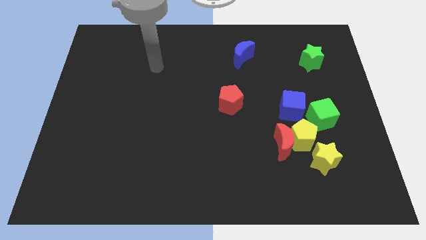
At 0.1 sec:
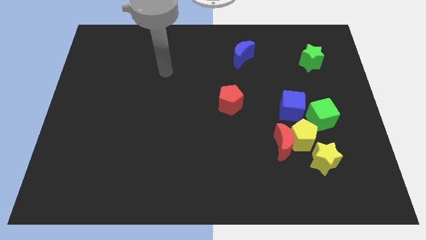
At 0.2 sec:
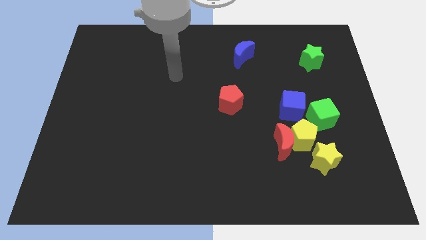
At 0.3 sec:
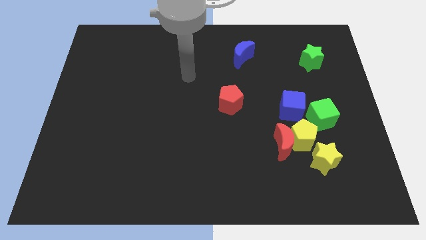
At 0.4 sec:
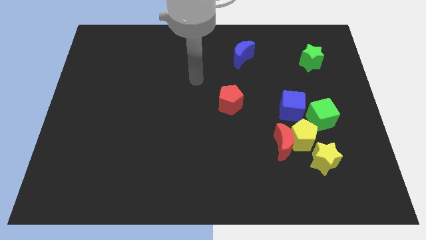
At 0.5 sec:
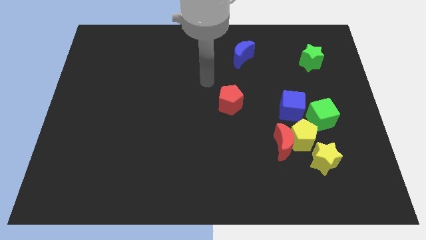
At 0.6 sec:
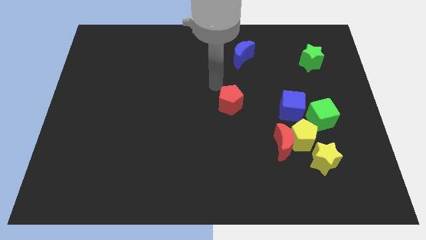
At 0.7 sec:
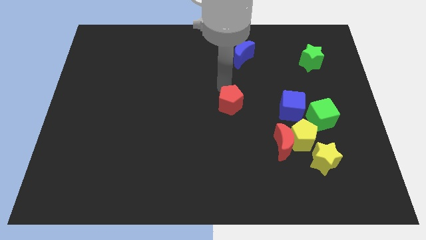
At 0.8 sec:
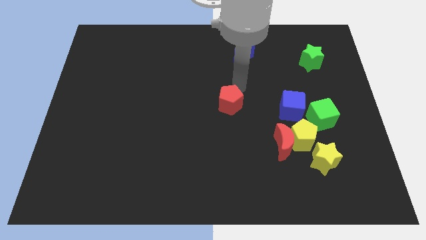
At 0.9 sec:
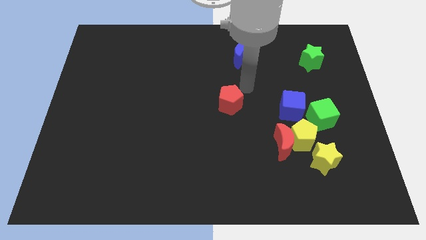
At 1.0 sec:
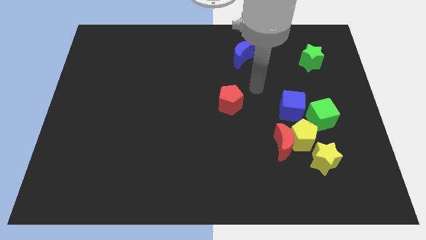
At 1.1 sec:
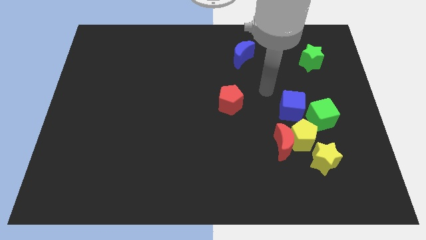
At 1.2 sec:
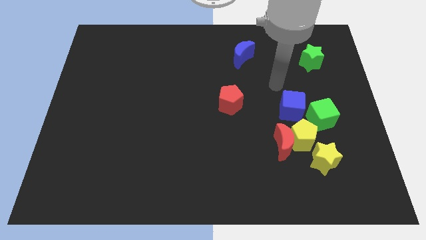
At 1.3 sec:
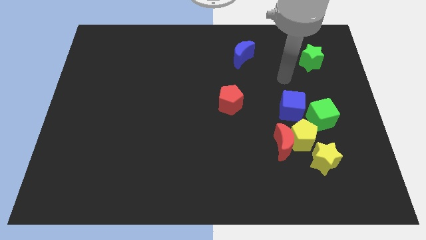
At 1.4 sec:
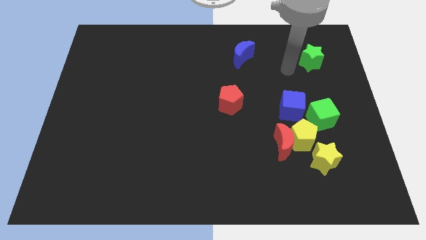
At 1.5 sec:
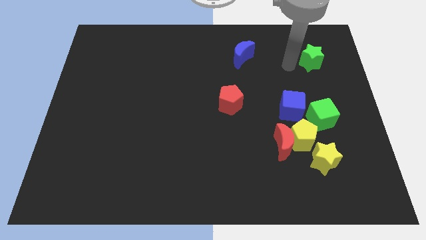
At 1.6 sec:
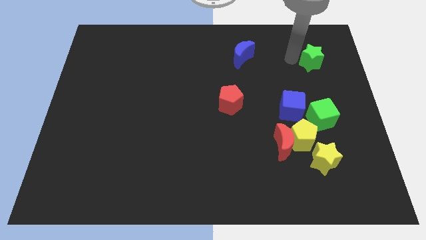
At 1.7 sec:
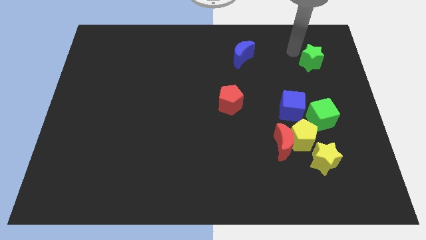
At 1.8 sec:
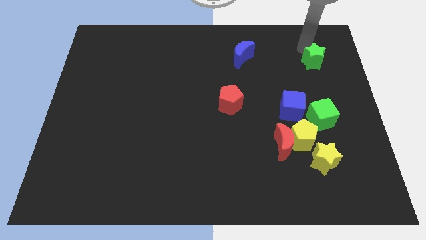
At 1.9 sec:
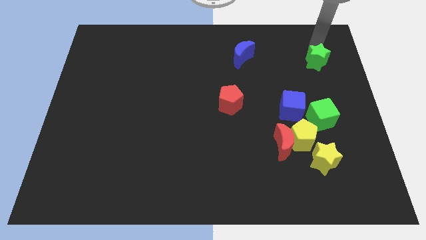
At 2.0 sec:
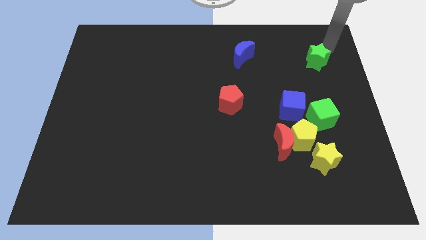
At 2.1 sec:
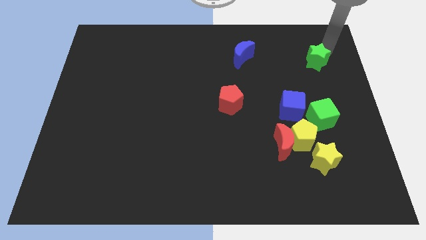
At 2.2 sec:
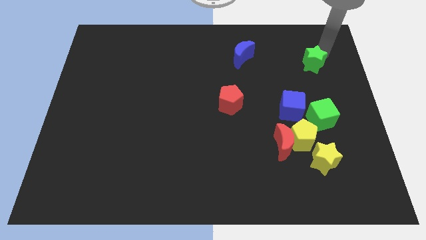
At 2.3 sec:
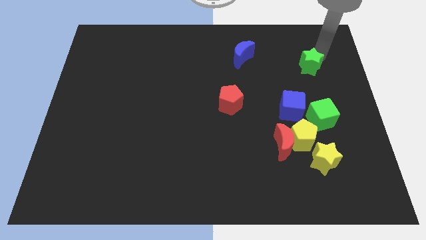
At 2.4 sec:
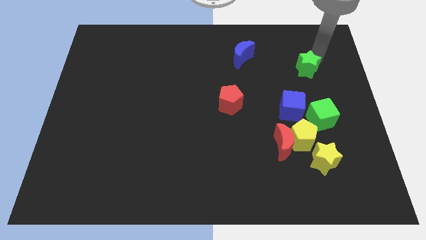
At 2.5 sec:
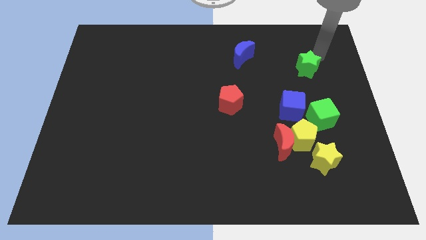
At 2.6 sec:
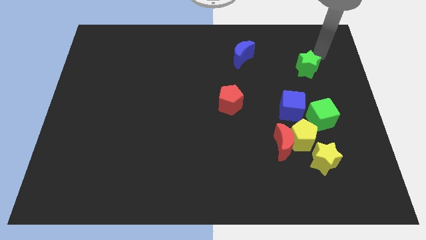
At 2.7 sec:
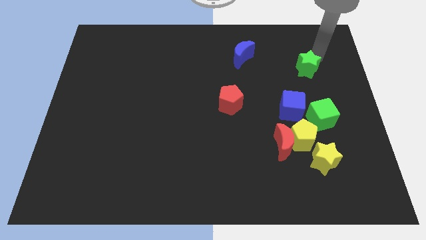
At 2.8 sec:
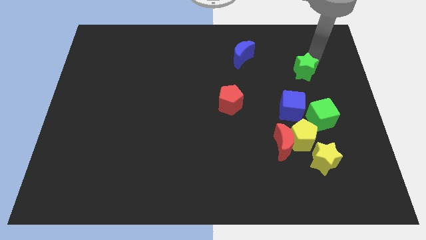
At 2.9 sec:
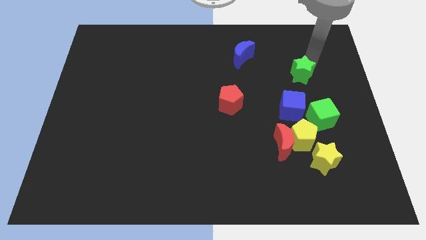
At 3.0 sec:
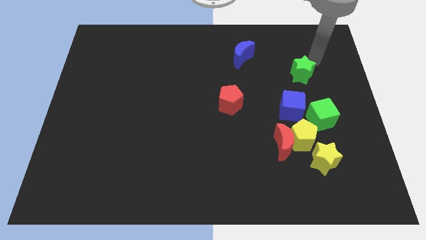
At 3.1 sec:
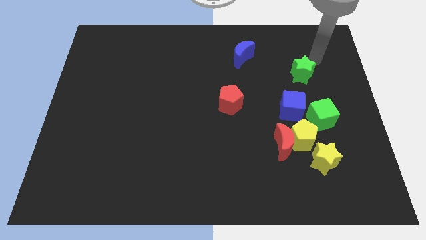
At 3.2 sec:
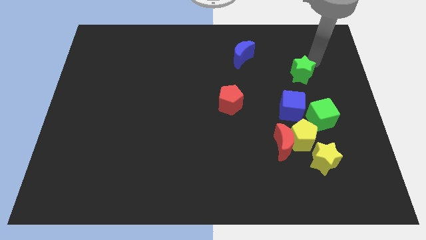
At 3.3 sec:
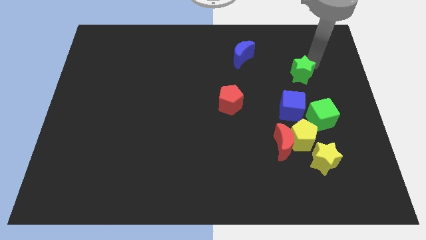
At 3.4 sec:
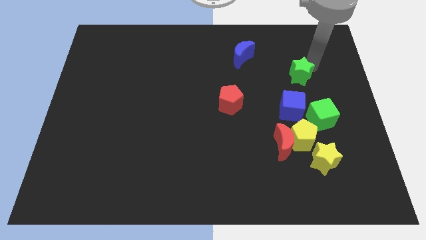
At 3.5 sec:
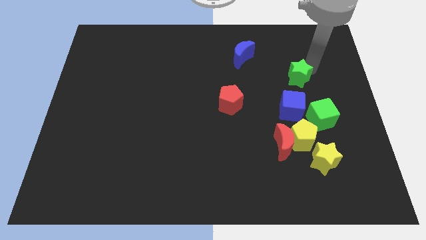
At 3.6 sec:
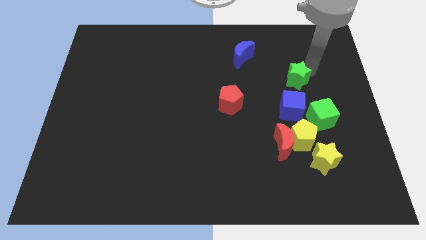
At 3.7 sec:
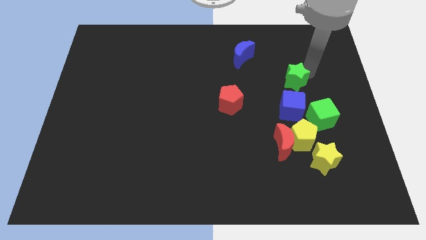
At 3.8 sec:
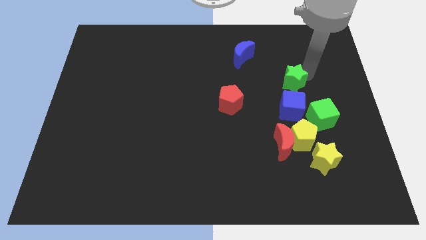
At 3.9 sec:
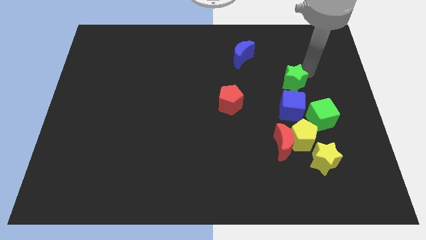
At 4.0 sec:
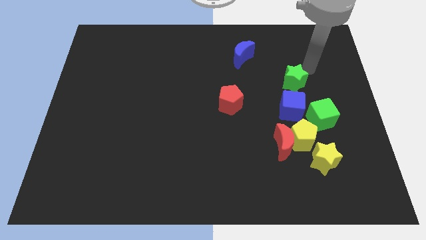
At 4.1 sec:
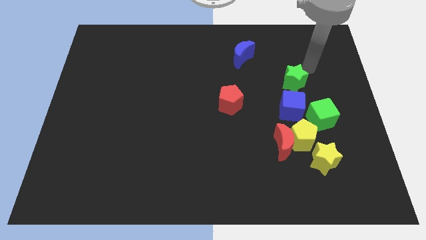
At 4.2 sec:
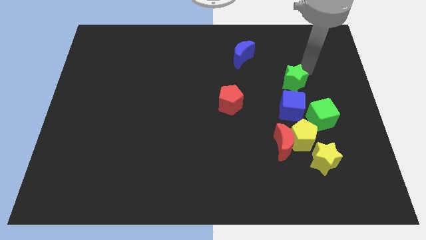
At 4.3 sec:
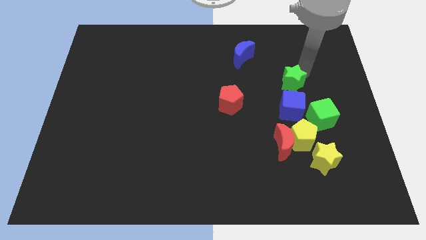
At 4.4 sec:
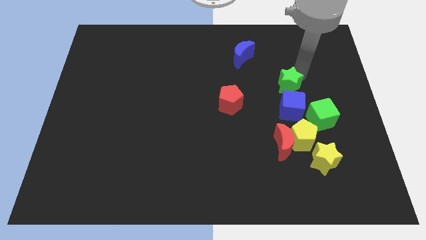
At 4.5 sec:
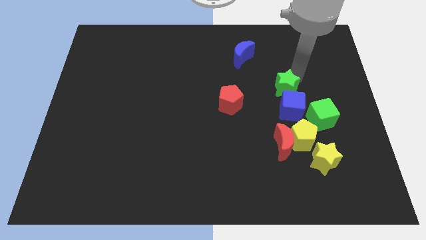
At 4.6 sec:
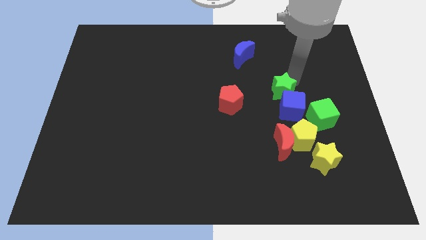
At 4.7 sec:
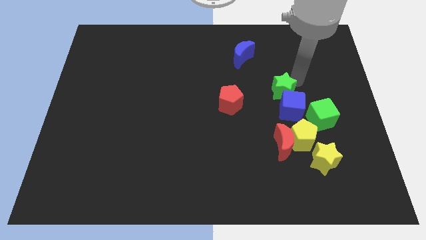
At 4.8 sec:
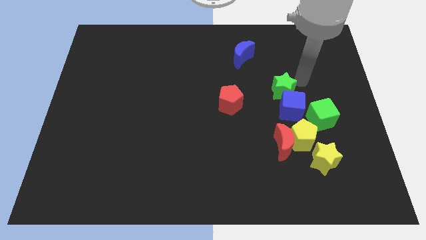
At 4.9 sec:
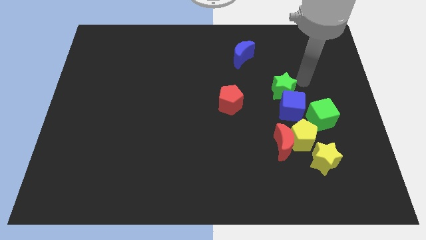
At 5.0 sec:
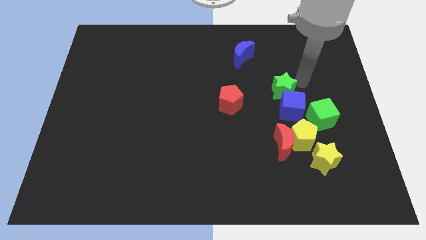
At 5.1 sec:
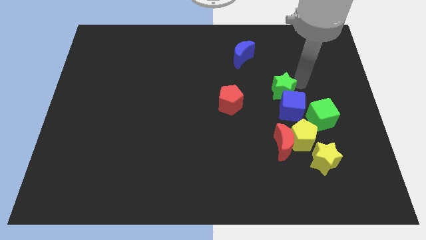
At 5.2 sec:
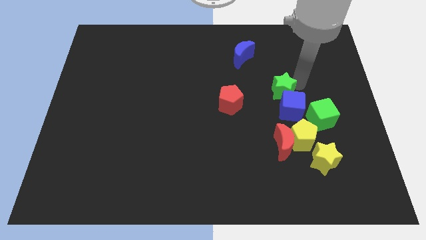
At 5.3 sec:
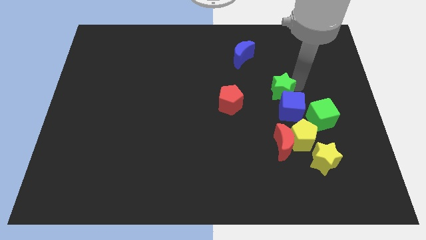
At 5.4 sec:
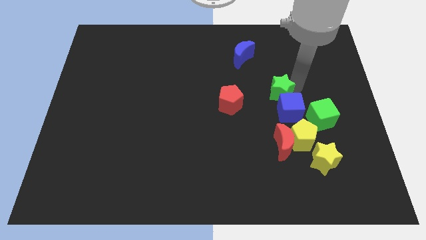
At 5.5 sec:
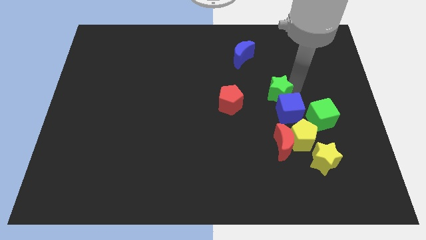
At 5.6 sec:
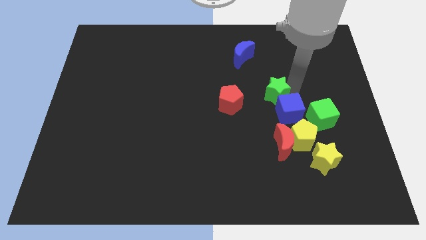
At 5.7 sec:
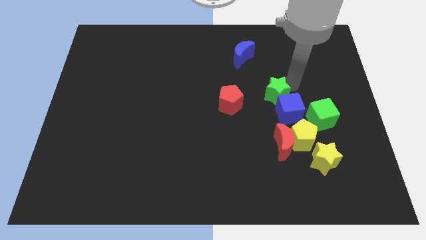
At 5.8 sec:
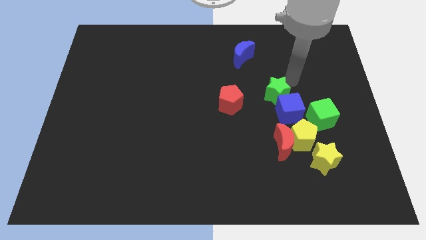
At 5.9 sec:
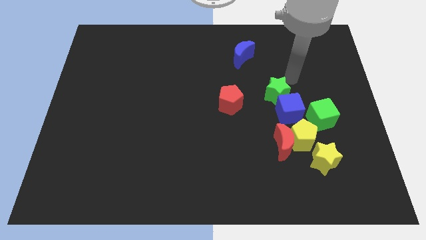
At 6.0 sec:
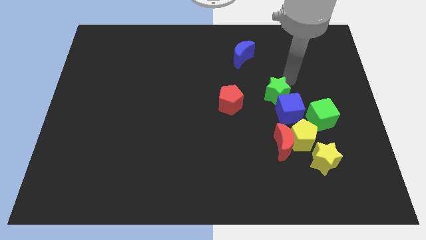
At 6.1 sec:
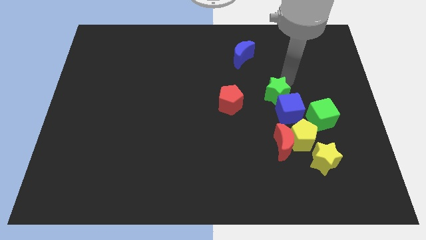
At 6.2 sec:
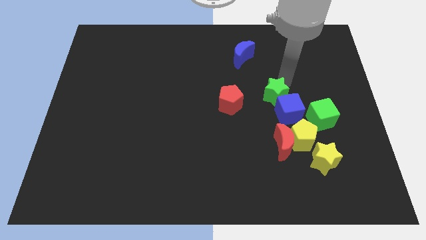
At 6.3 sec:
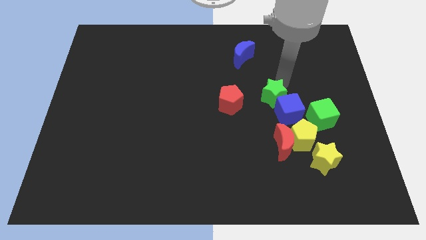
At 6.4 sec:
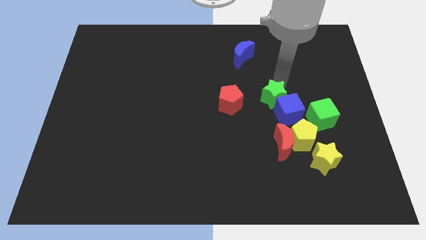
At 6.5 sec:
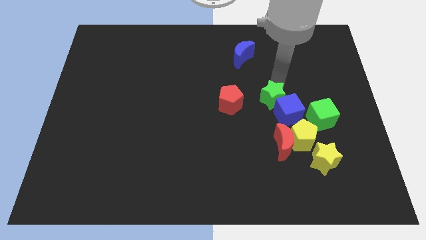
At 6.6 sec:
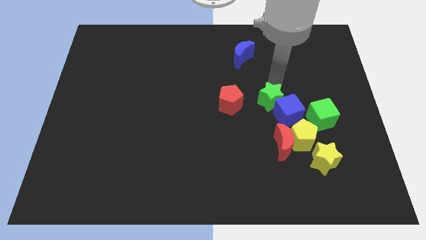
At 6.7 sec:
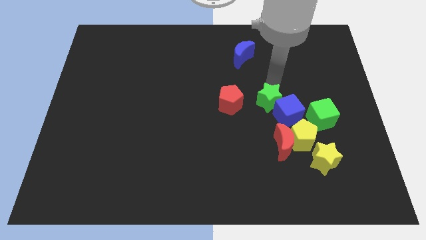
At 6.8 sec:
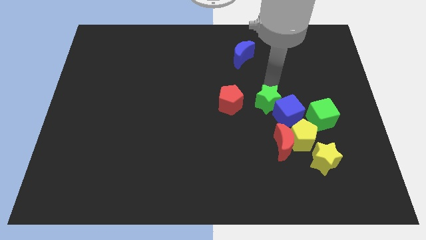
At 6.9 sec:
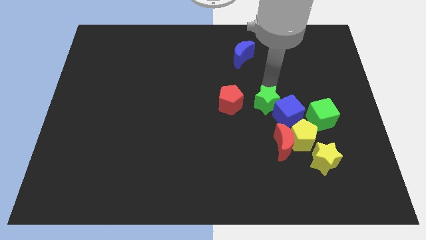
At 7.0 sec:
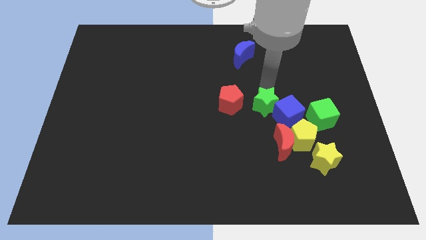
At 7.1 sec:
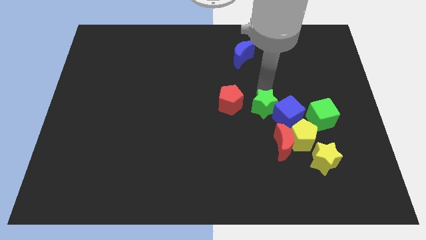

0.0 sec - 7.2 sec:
move the green star down and to the left

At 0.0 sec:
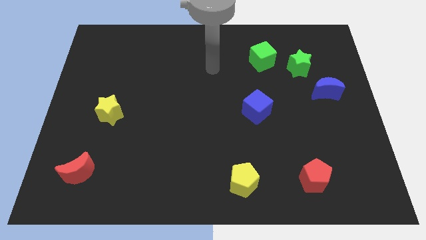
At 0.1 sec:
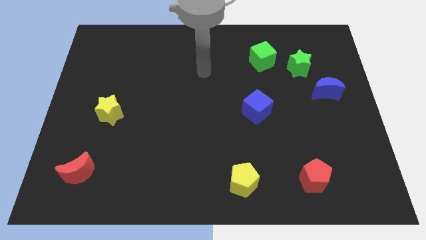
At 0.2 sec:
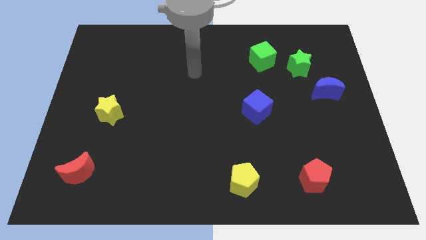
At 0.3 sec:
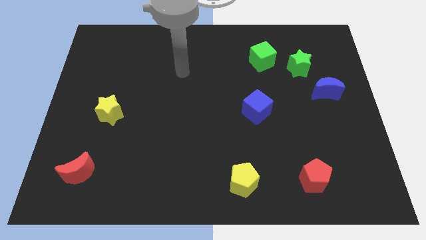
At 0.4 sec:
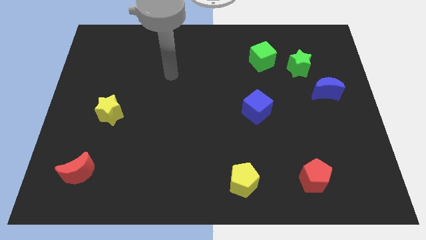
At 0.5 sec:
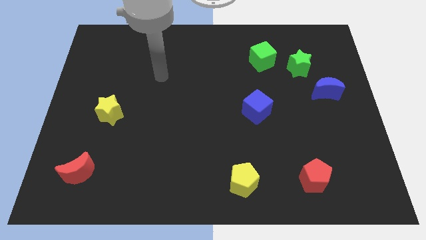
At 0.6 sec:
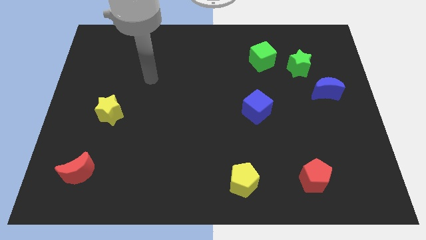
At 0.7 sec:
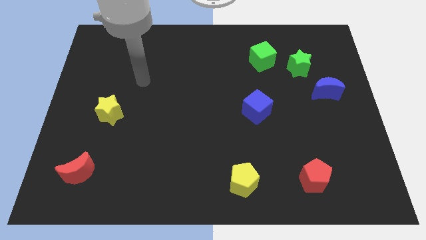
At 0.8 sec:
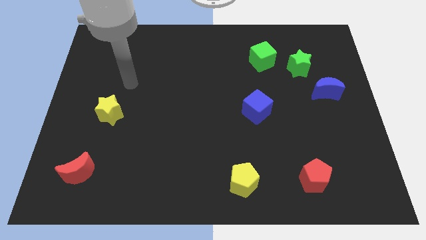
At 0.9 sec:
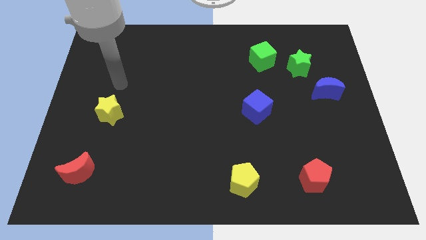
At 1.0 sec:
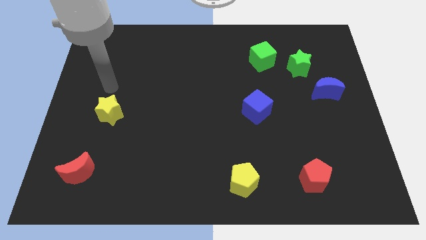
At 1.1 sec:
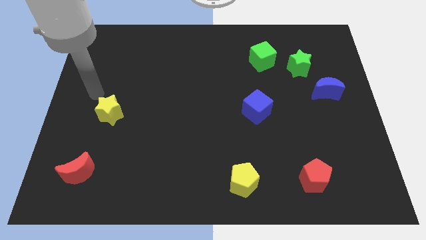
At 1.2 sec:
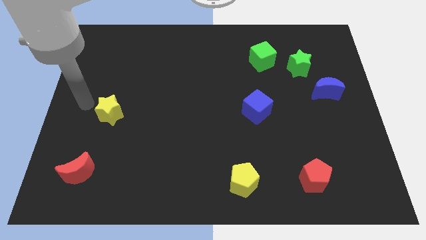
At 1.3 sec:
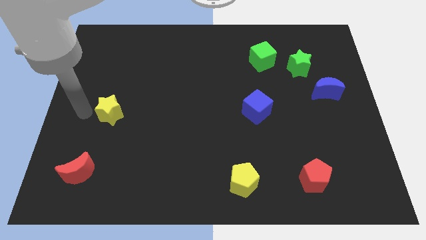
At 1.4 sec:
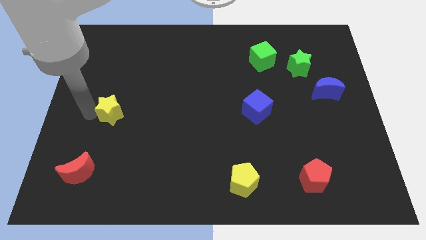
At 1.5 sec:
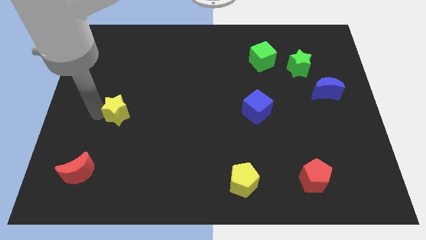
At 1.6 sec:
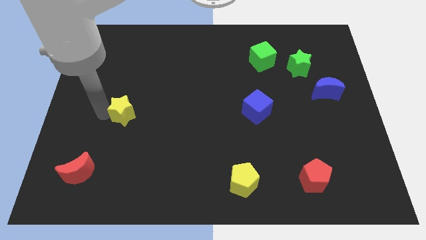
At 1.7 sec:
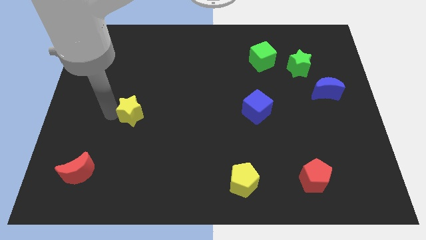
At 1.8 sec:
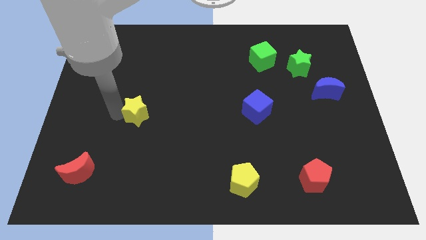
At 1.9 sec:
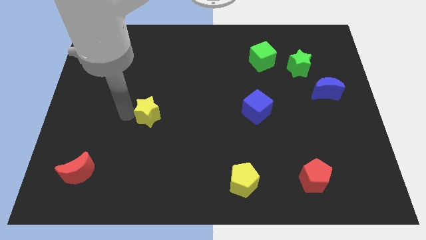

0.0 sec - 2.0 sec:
slightly push the yellow star right
